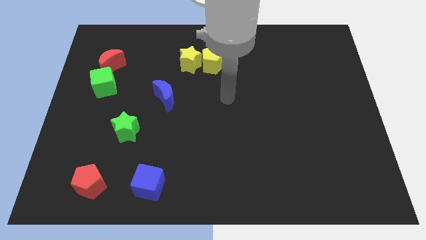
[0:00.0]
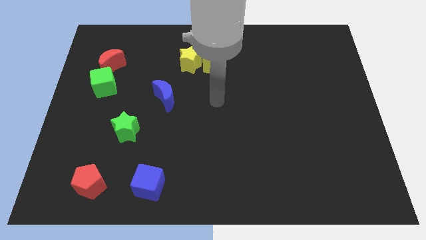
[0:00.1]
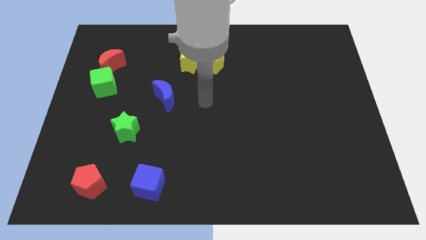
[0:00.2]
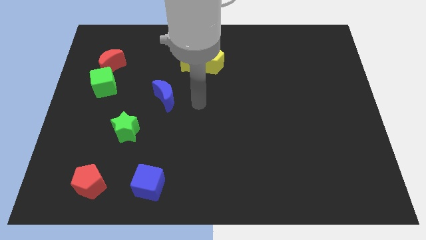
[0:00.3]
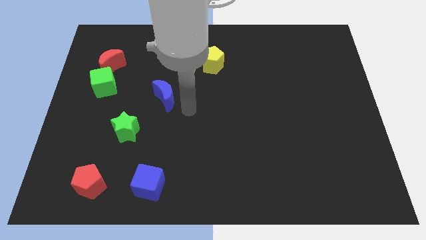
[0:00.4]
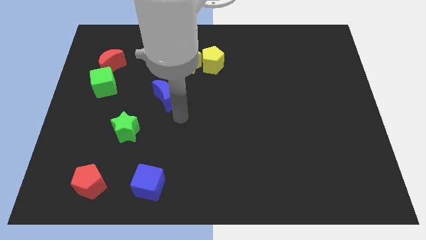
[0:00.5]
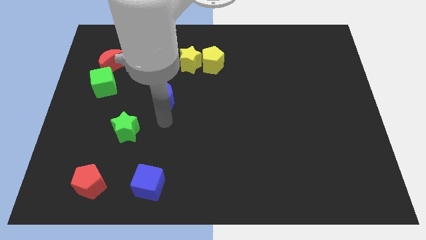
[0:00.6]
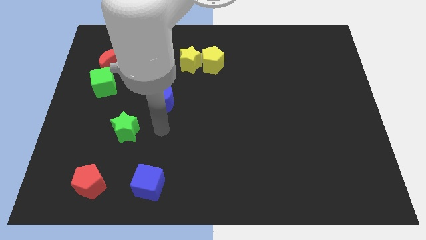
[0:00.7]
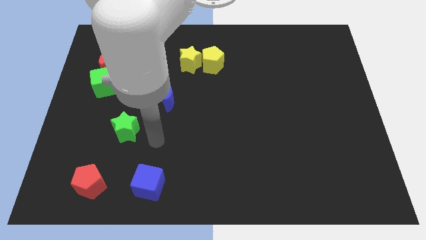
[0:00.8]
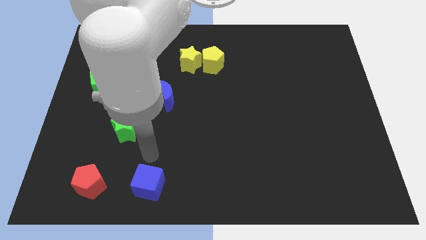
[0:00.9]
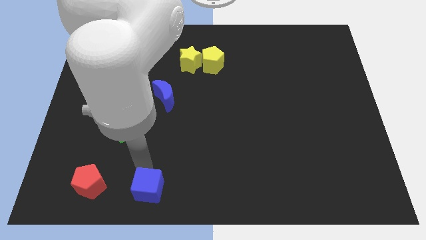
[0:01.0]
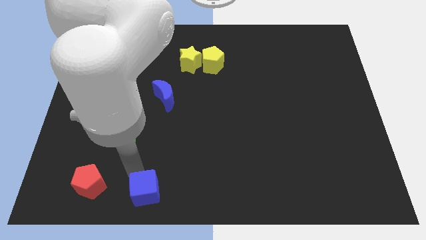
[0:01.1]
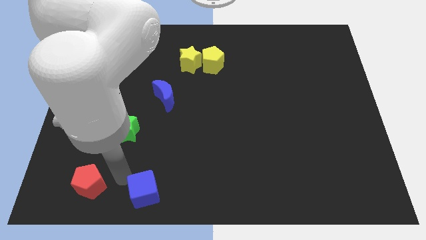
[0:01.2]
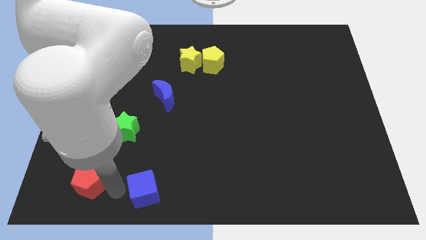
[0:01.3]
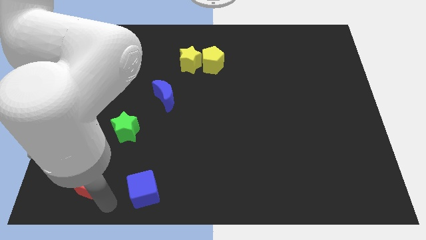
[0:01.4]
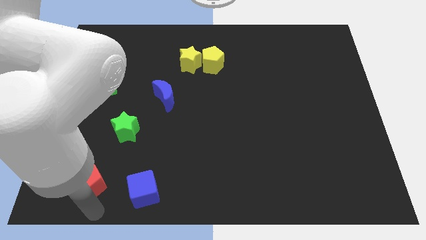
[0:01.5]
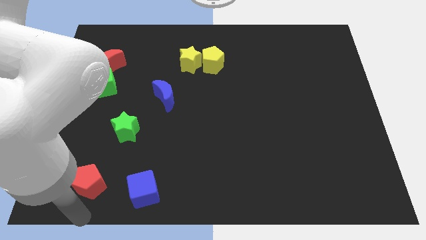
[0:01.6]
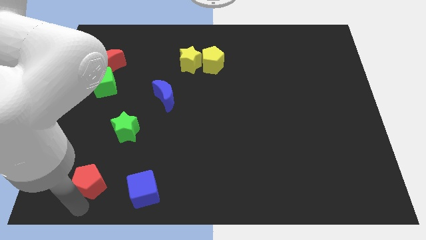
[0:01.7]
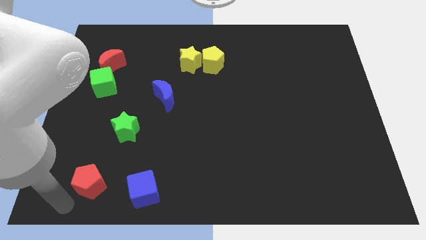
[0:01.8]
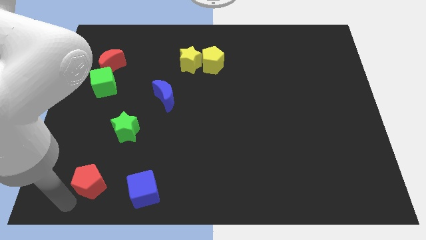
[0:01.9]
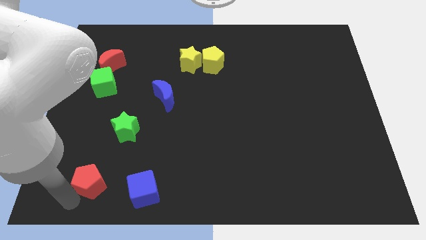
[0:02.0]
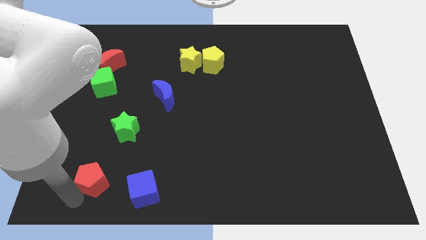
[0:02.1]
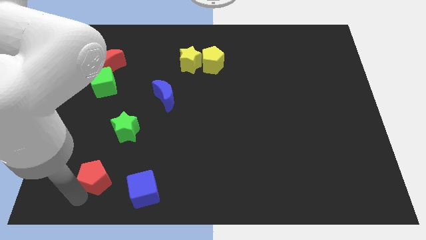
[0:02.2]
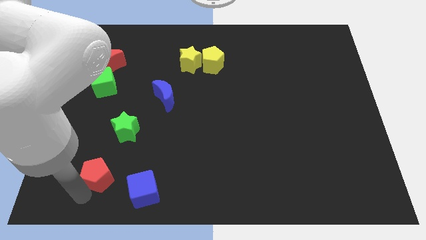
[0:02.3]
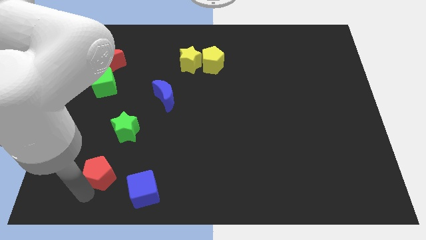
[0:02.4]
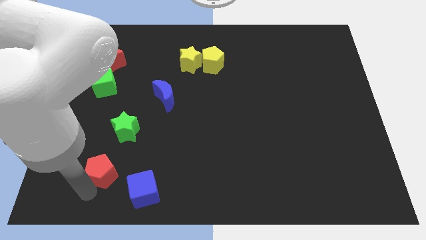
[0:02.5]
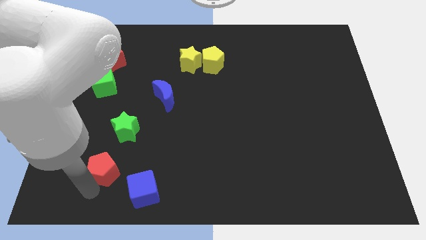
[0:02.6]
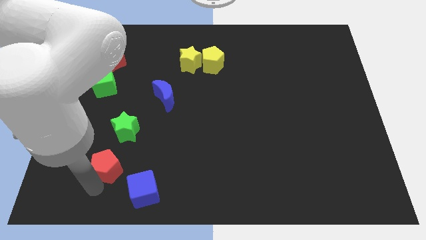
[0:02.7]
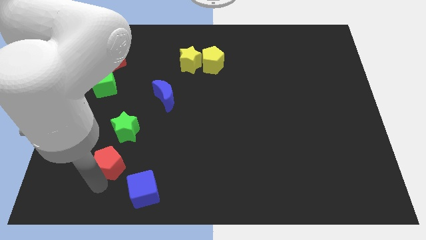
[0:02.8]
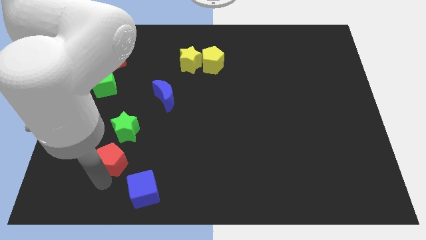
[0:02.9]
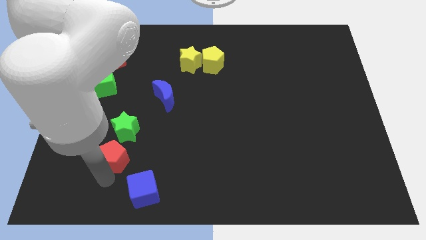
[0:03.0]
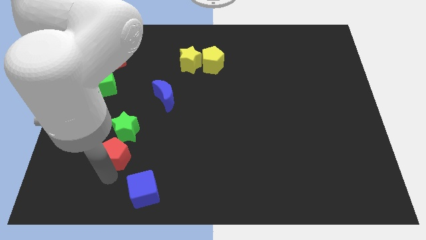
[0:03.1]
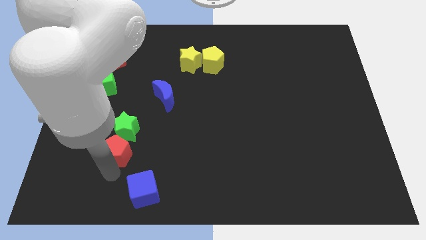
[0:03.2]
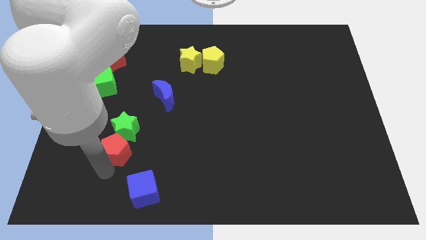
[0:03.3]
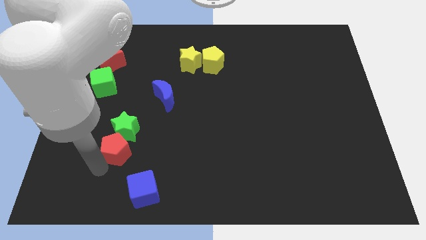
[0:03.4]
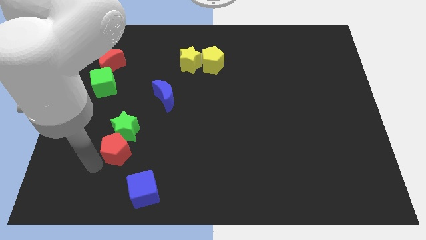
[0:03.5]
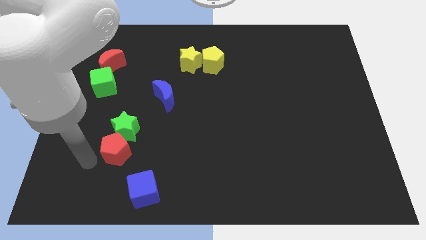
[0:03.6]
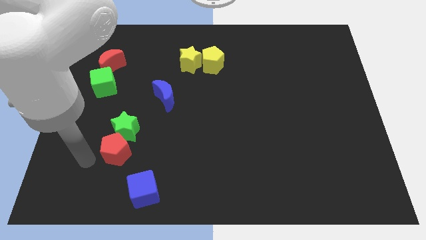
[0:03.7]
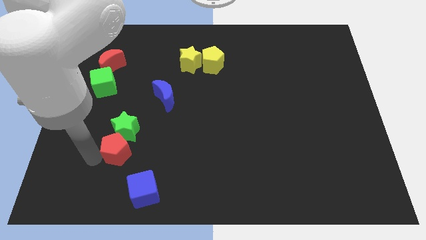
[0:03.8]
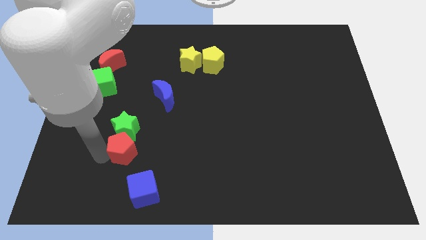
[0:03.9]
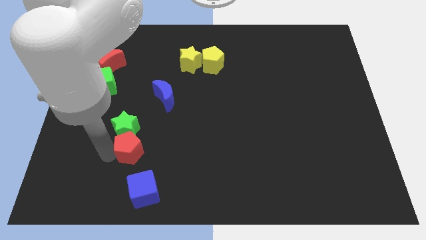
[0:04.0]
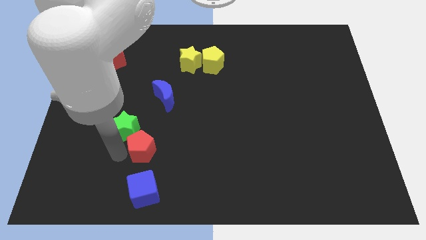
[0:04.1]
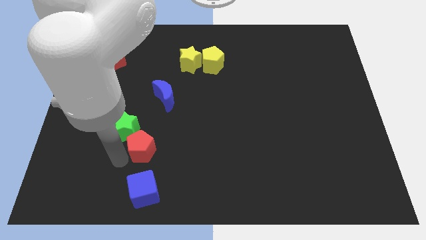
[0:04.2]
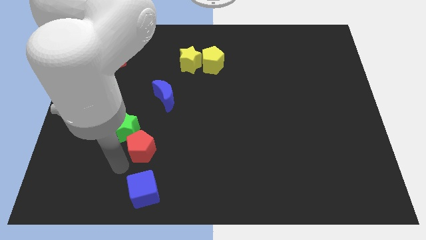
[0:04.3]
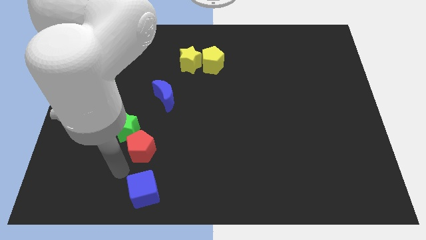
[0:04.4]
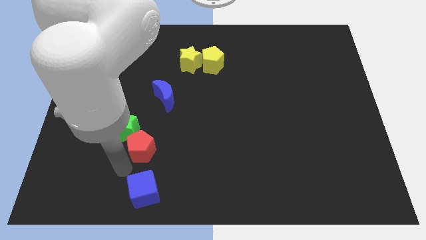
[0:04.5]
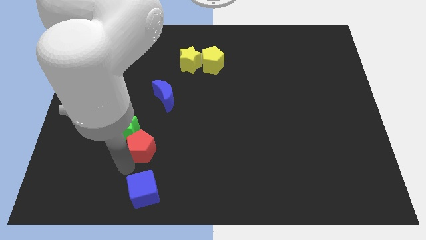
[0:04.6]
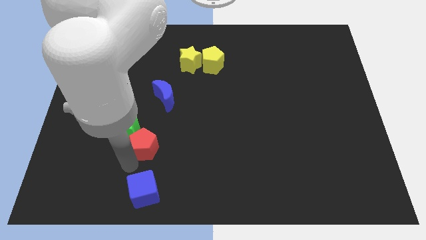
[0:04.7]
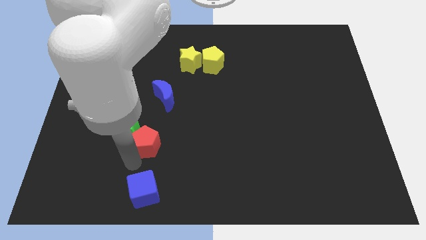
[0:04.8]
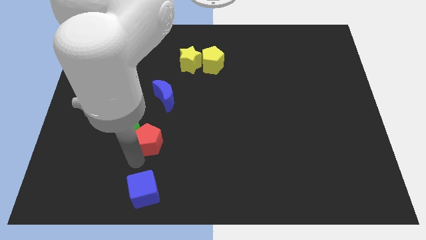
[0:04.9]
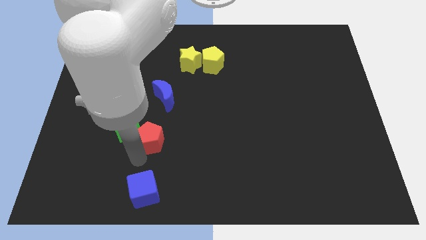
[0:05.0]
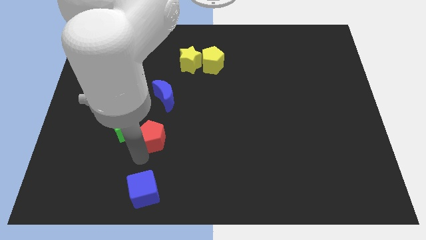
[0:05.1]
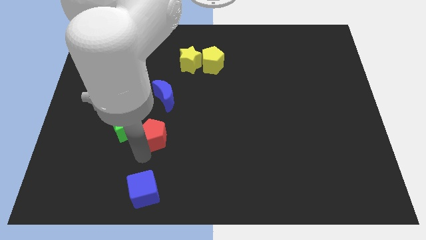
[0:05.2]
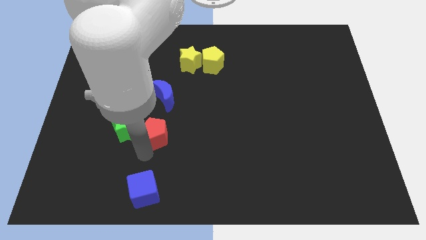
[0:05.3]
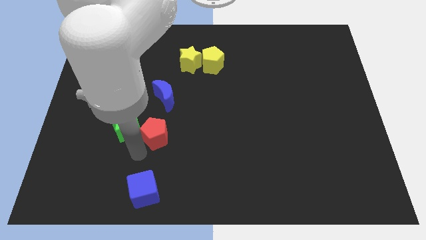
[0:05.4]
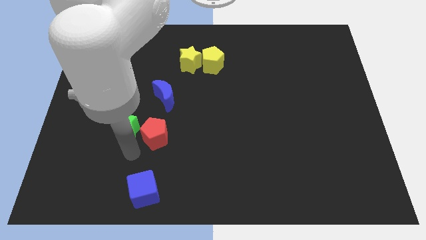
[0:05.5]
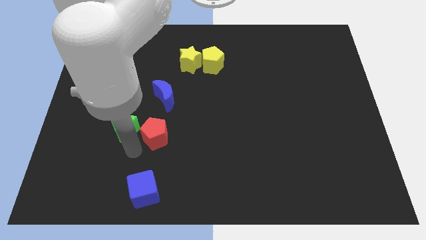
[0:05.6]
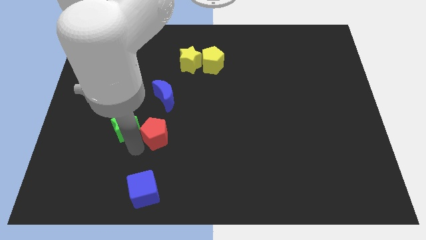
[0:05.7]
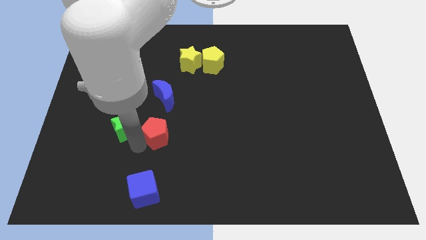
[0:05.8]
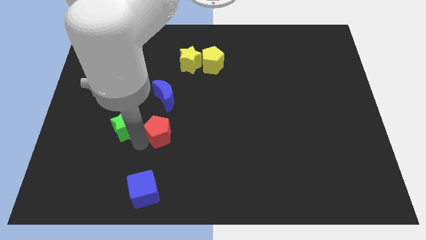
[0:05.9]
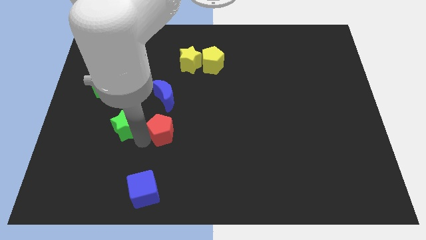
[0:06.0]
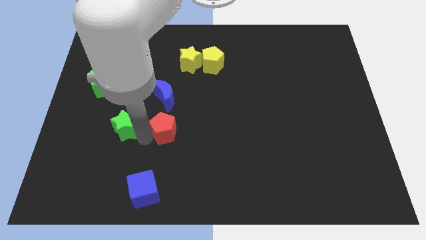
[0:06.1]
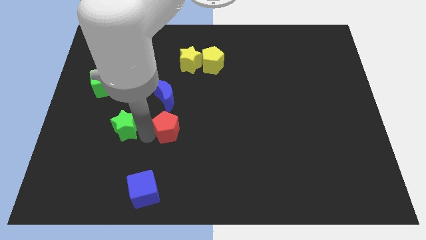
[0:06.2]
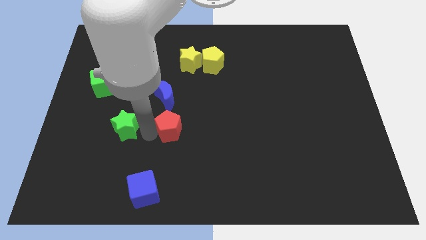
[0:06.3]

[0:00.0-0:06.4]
move the red pentagon up and to the right

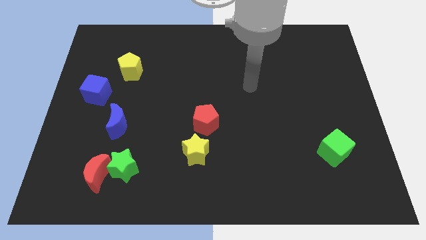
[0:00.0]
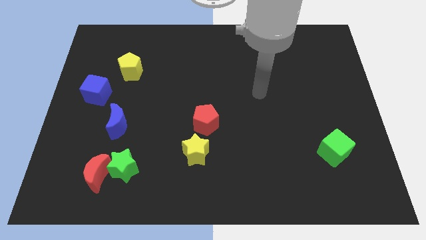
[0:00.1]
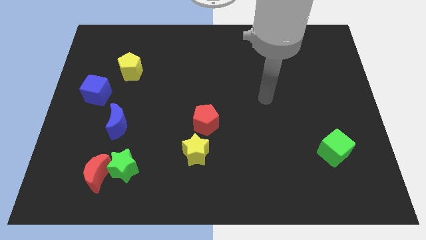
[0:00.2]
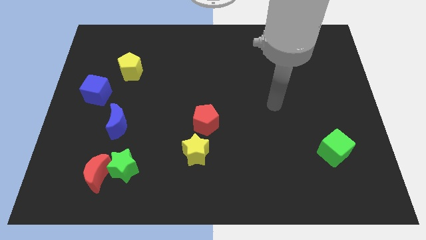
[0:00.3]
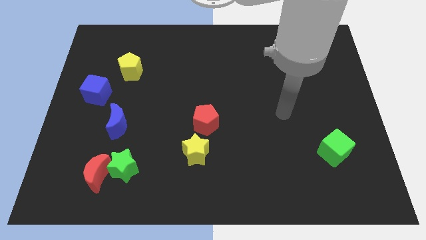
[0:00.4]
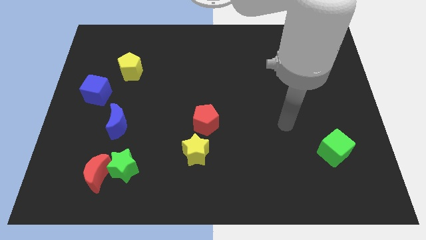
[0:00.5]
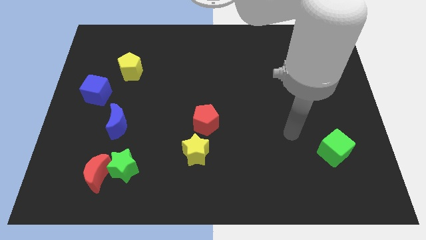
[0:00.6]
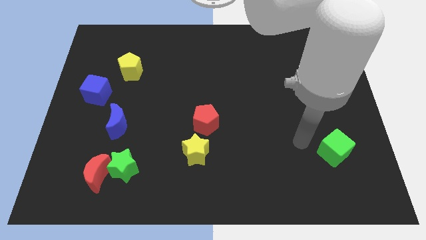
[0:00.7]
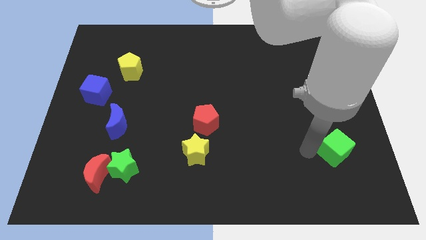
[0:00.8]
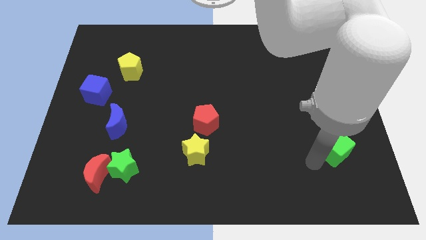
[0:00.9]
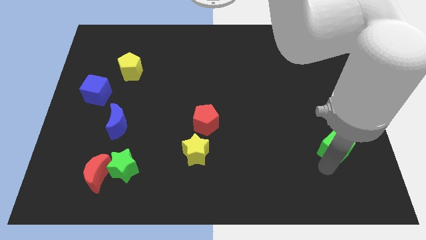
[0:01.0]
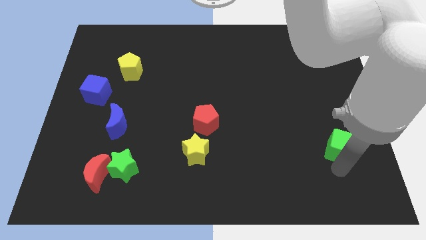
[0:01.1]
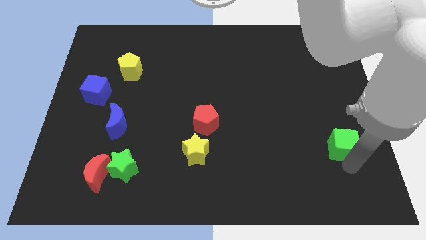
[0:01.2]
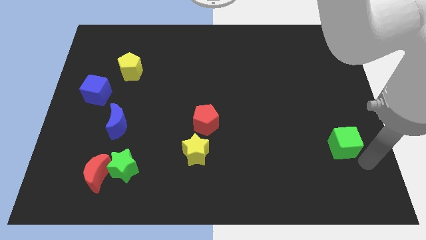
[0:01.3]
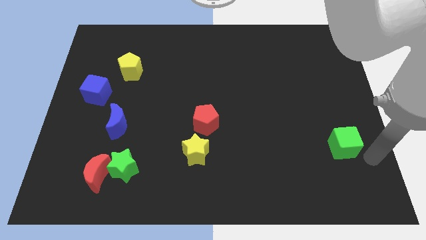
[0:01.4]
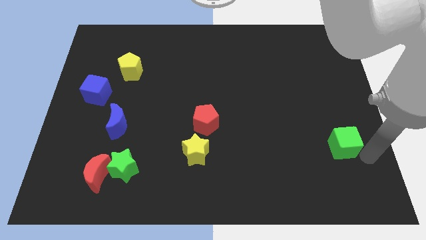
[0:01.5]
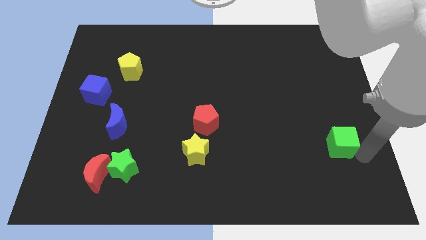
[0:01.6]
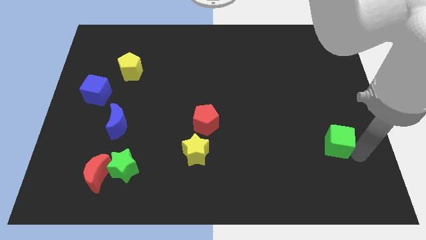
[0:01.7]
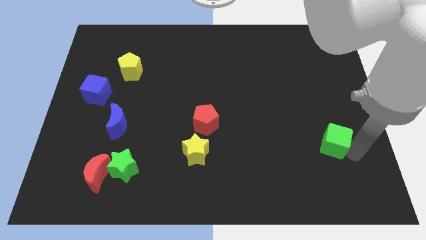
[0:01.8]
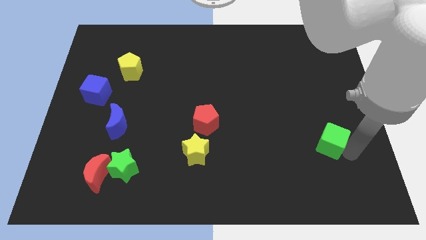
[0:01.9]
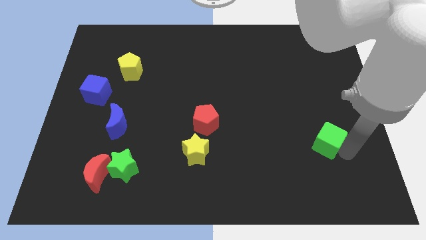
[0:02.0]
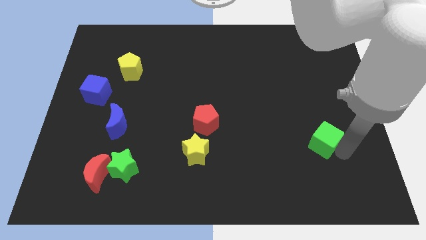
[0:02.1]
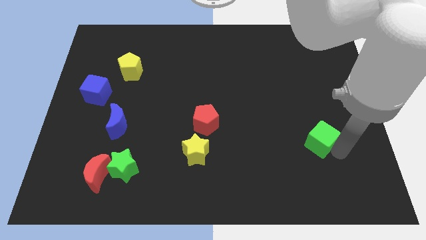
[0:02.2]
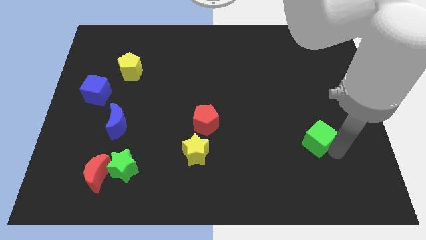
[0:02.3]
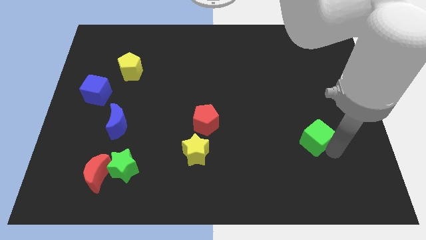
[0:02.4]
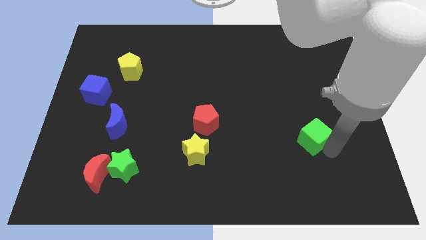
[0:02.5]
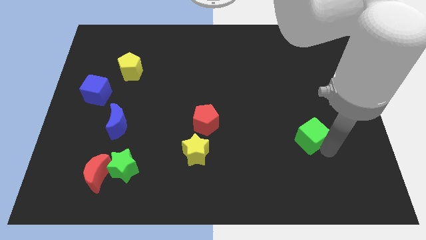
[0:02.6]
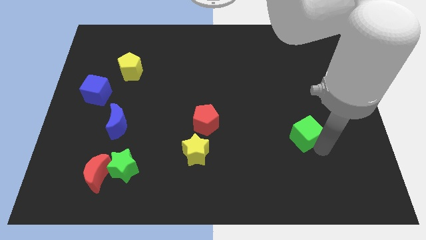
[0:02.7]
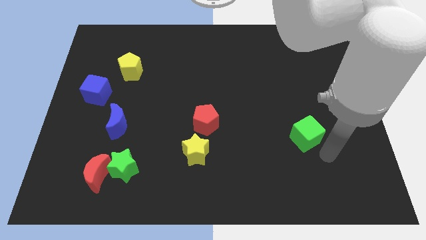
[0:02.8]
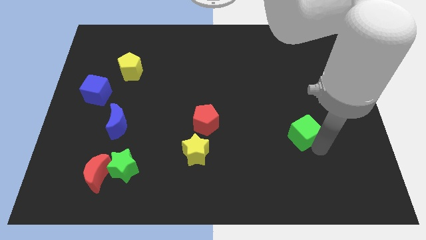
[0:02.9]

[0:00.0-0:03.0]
slide the green cube a little up and to the left diagonally
